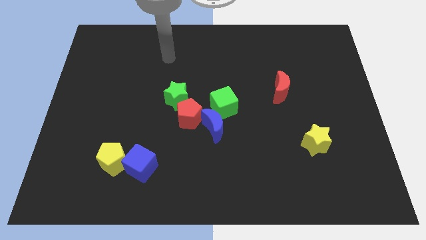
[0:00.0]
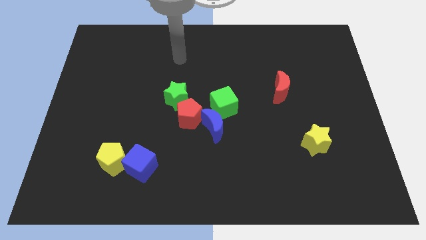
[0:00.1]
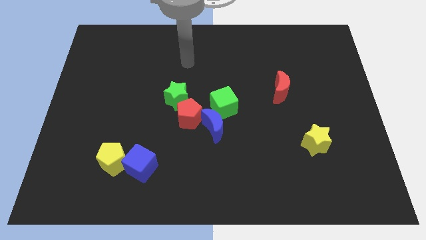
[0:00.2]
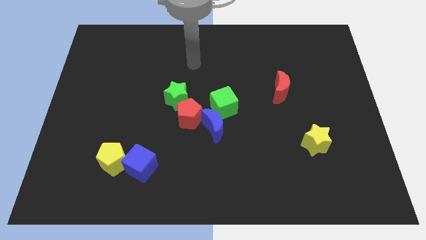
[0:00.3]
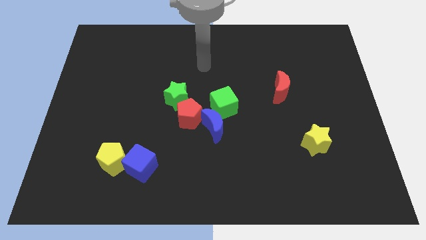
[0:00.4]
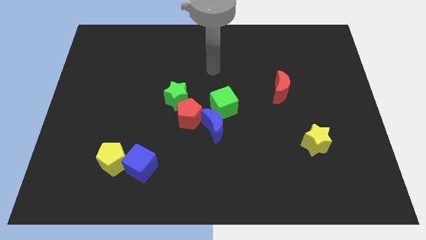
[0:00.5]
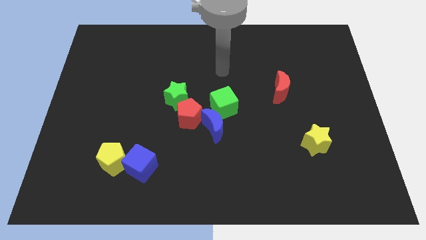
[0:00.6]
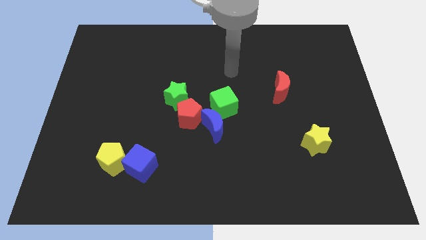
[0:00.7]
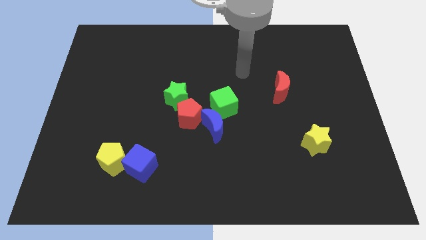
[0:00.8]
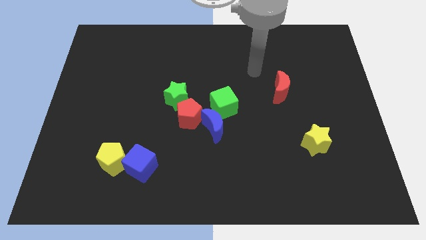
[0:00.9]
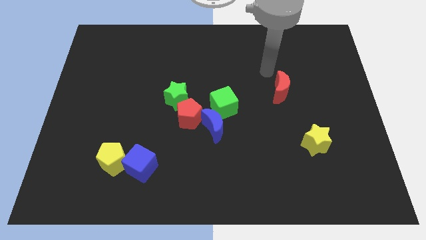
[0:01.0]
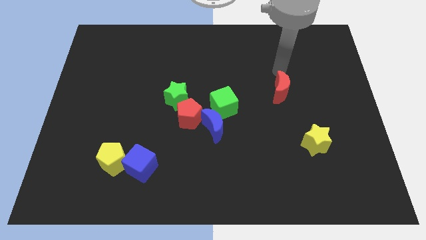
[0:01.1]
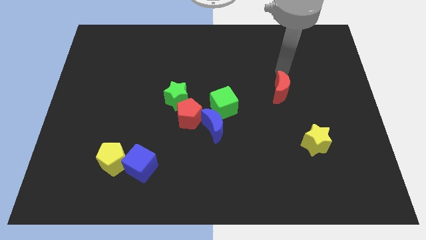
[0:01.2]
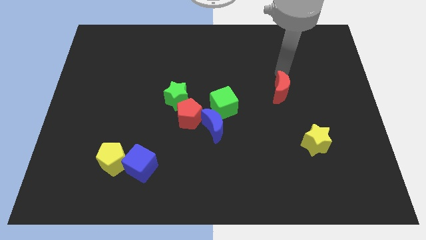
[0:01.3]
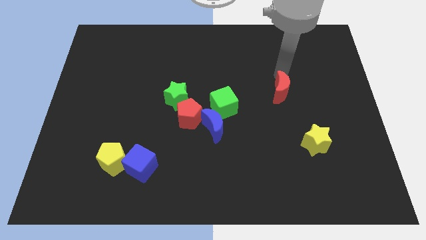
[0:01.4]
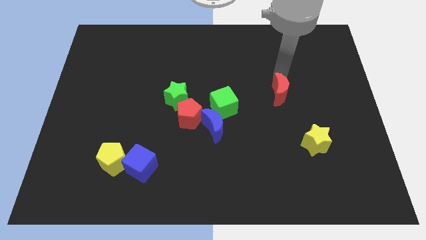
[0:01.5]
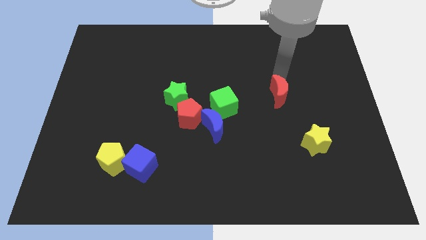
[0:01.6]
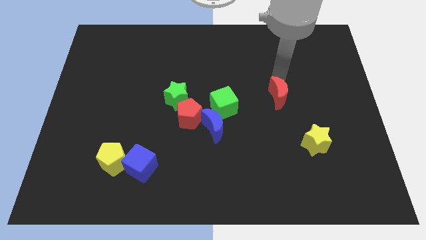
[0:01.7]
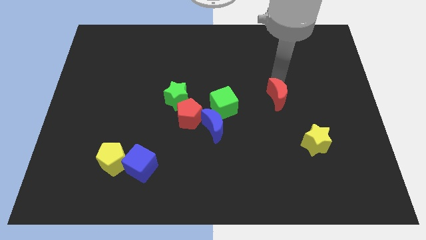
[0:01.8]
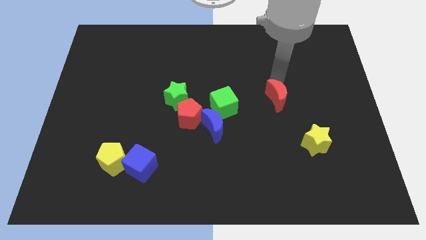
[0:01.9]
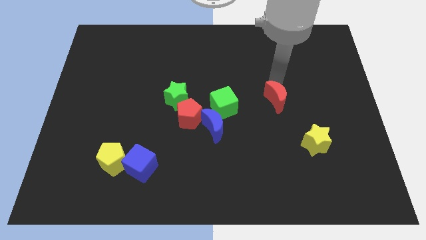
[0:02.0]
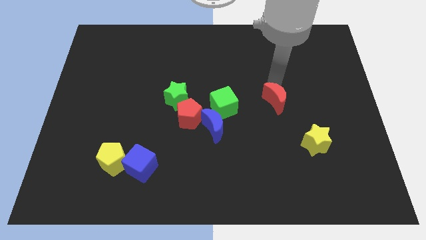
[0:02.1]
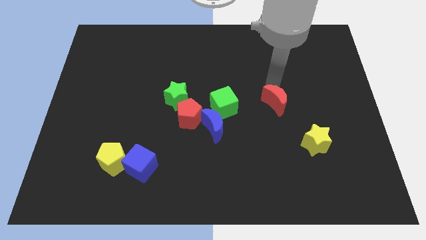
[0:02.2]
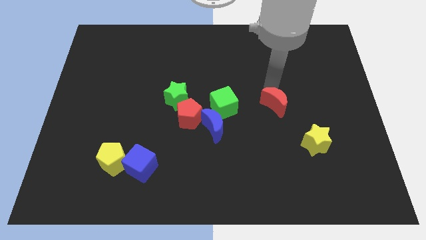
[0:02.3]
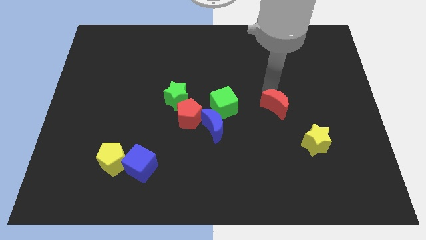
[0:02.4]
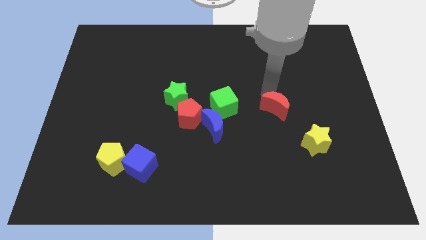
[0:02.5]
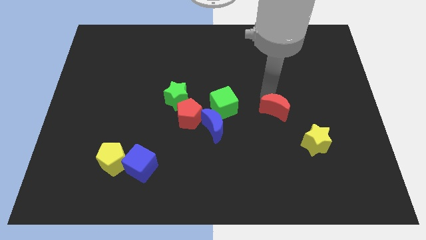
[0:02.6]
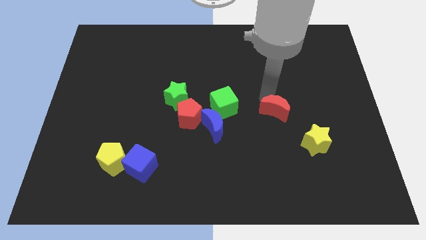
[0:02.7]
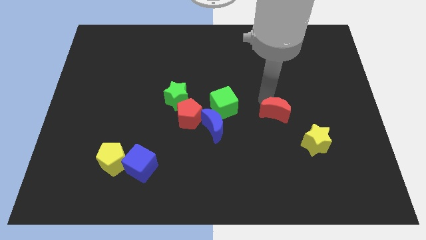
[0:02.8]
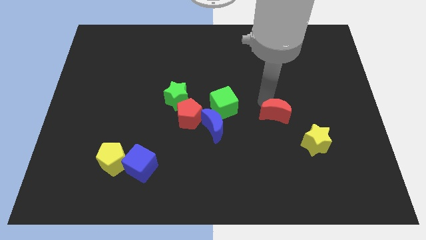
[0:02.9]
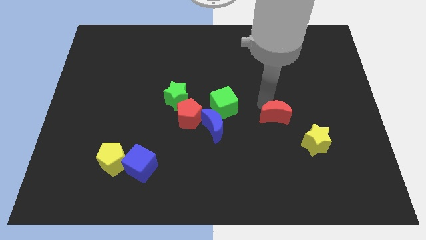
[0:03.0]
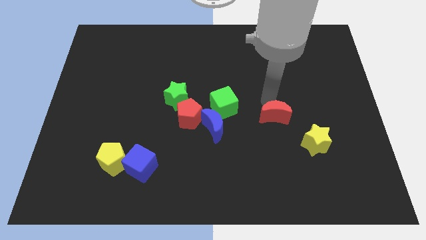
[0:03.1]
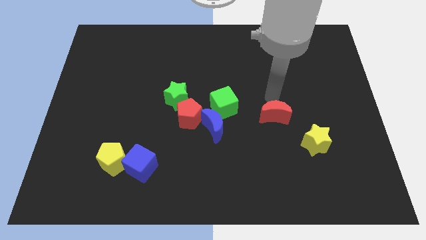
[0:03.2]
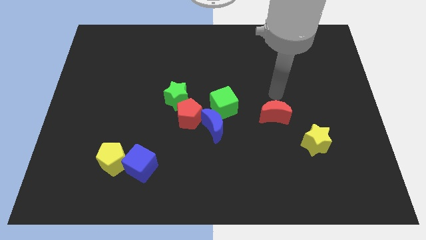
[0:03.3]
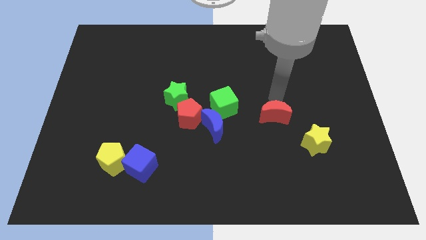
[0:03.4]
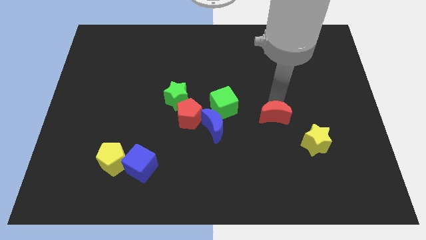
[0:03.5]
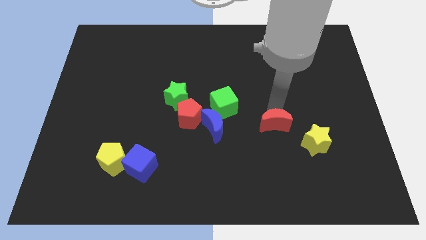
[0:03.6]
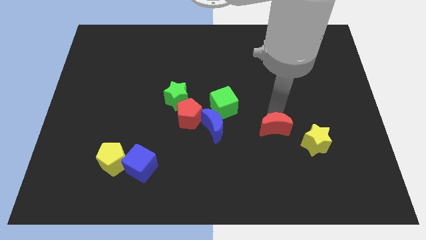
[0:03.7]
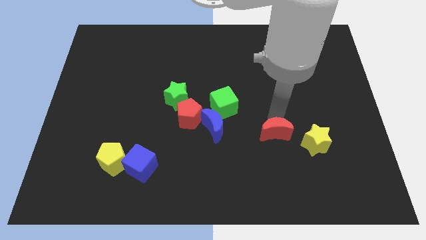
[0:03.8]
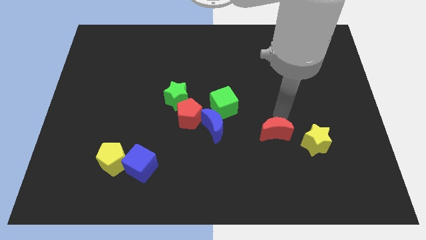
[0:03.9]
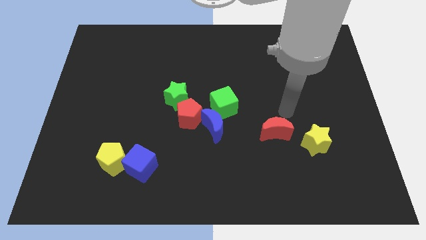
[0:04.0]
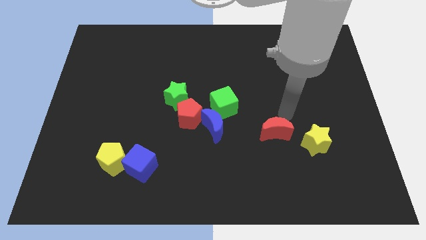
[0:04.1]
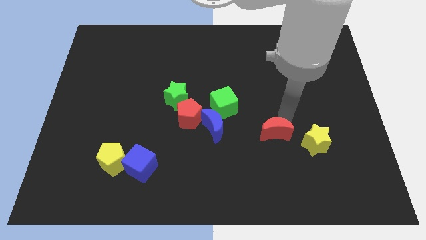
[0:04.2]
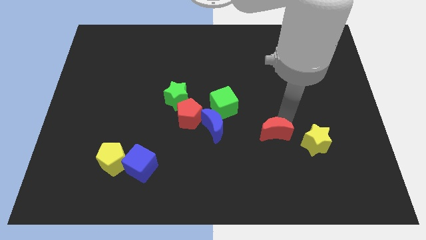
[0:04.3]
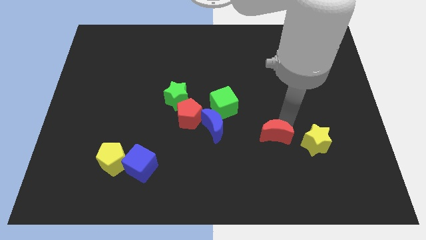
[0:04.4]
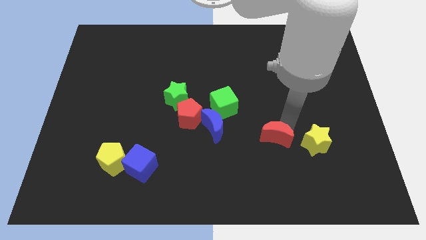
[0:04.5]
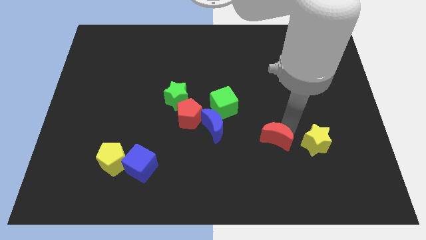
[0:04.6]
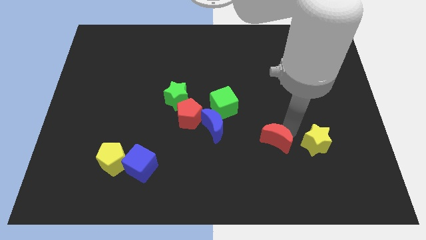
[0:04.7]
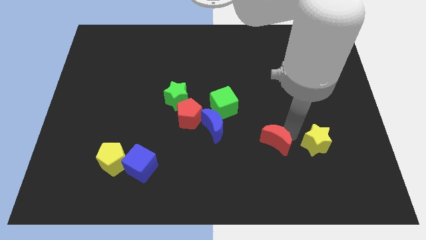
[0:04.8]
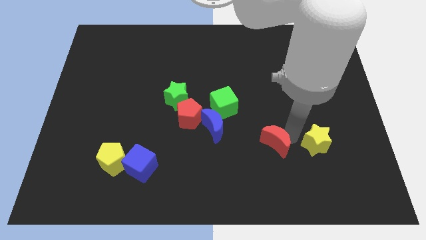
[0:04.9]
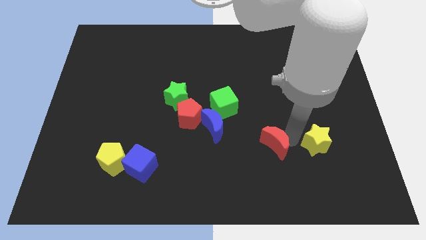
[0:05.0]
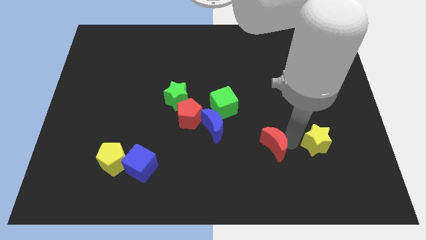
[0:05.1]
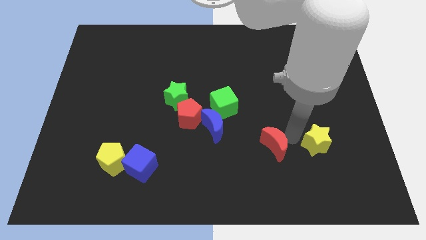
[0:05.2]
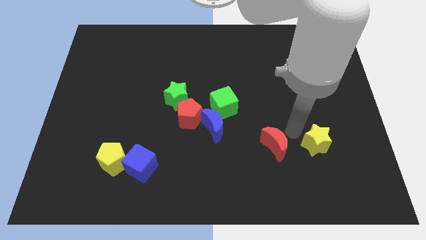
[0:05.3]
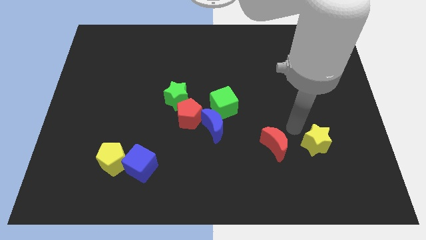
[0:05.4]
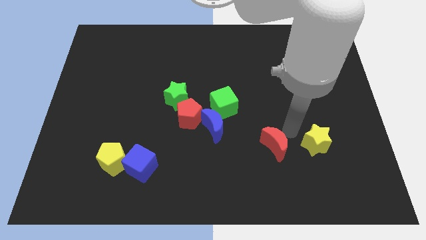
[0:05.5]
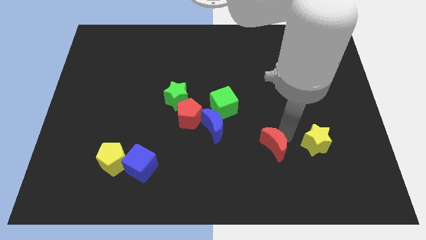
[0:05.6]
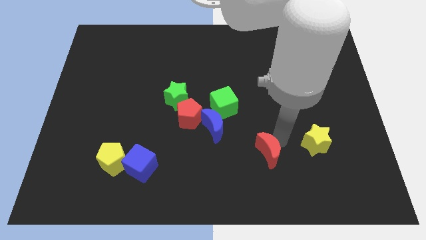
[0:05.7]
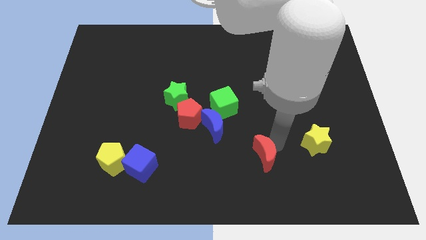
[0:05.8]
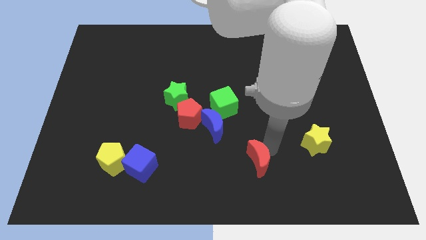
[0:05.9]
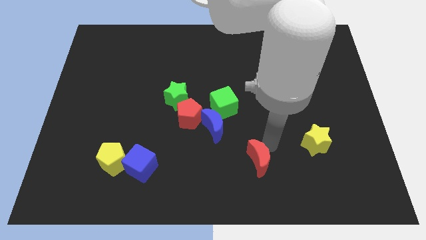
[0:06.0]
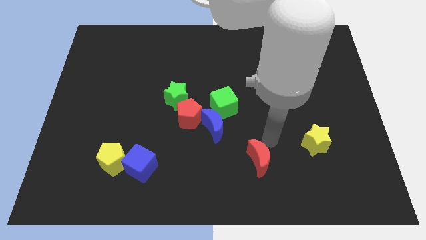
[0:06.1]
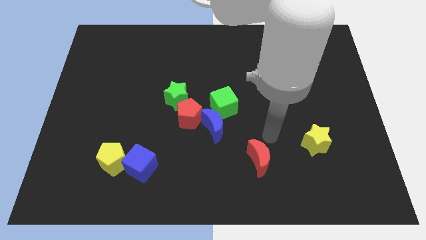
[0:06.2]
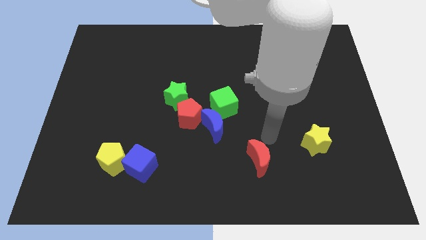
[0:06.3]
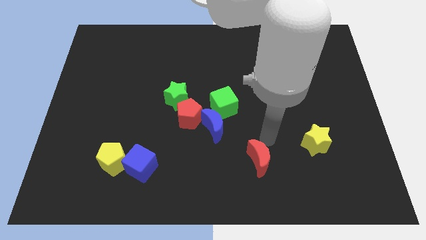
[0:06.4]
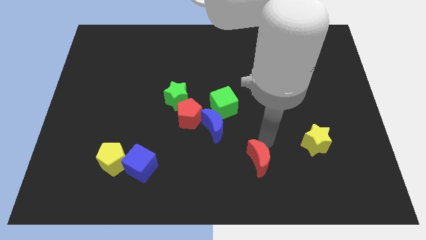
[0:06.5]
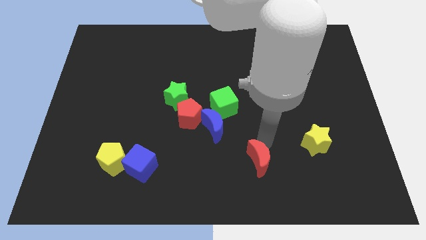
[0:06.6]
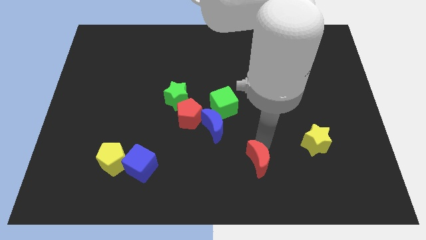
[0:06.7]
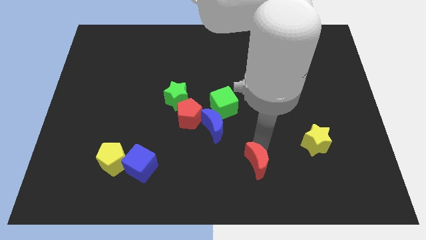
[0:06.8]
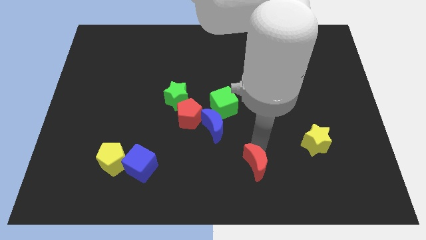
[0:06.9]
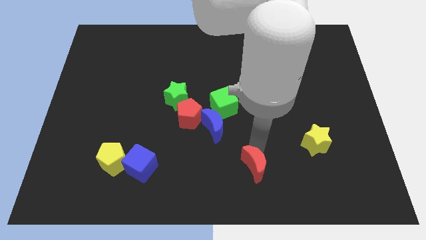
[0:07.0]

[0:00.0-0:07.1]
slide the red moon to the bottom side

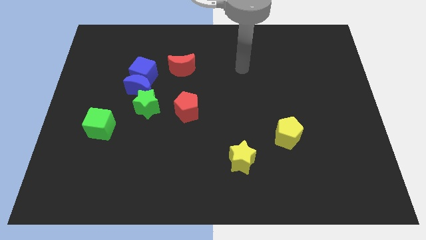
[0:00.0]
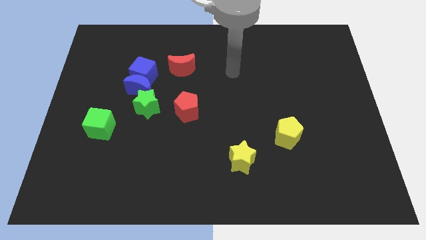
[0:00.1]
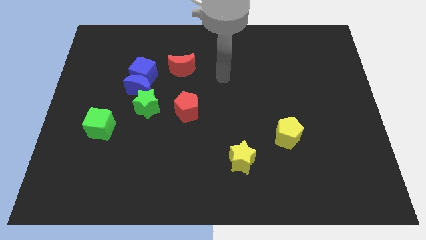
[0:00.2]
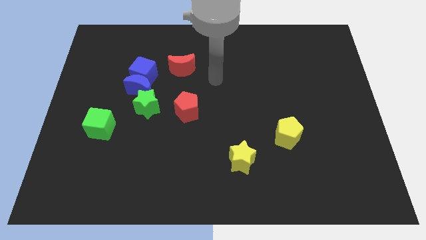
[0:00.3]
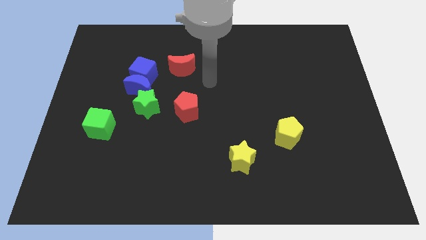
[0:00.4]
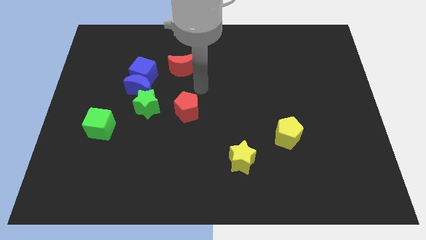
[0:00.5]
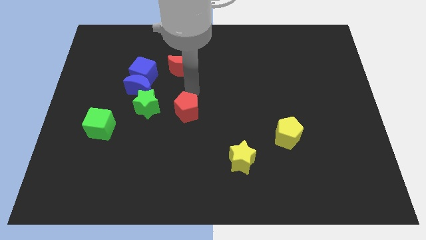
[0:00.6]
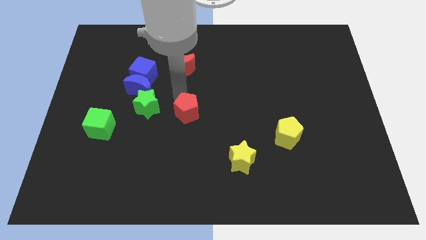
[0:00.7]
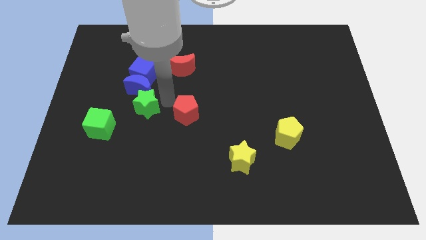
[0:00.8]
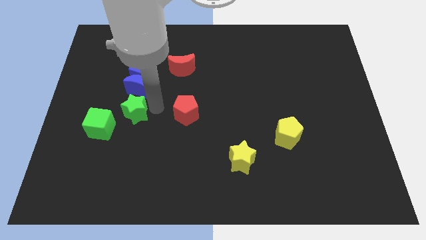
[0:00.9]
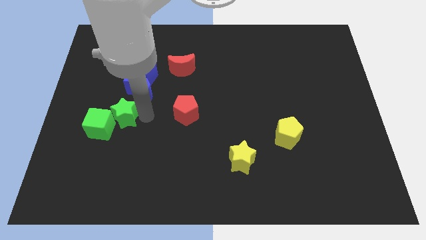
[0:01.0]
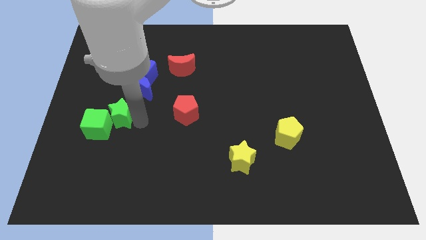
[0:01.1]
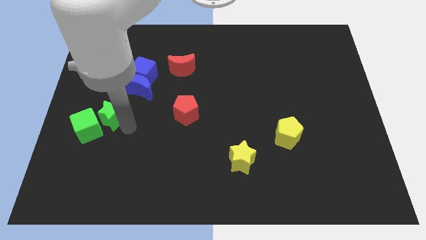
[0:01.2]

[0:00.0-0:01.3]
slide the green cube to the left side
